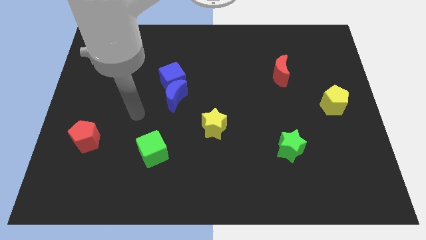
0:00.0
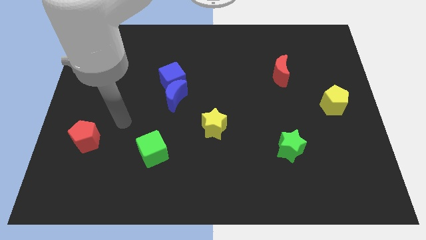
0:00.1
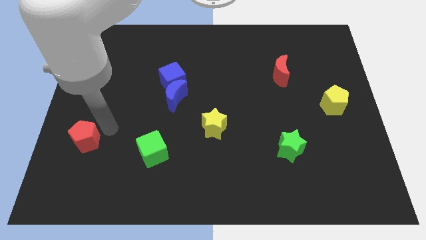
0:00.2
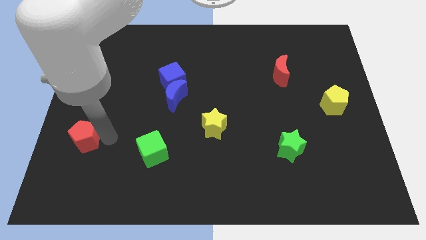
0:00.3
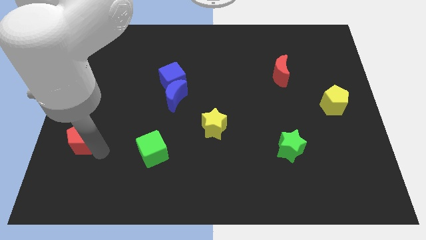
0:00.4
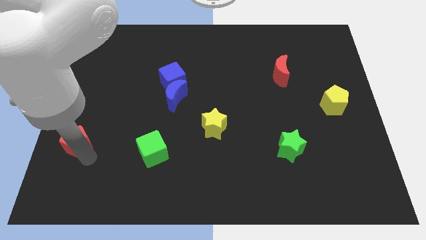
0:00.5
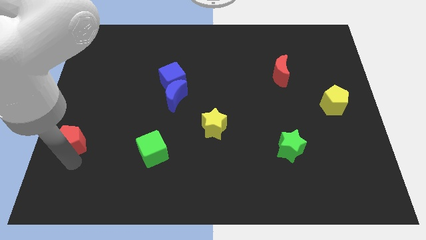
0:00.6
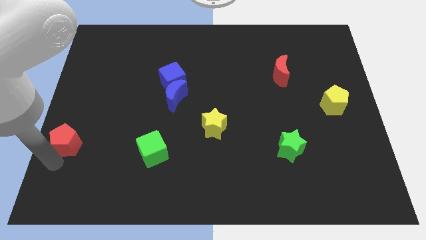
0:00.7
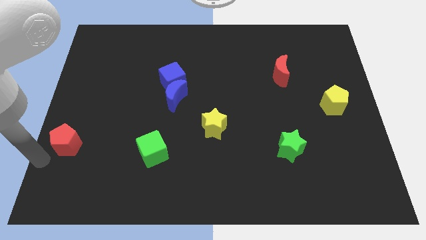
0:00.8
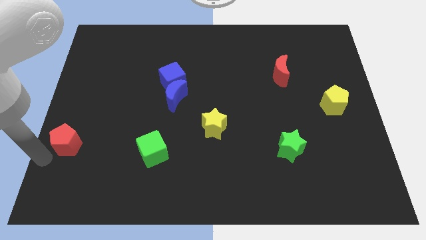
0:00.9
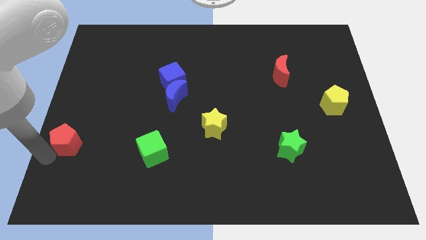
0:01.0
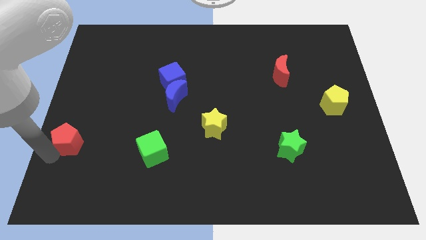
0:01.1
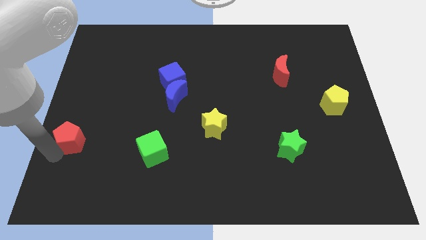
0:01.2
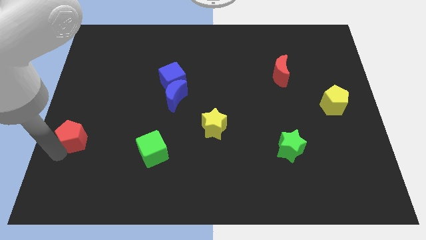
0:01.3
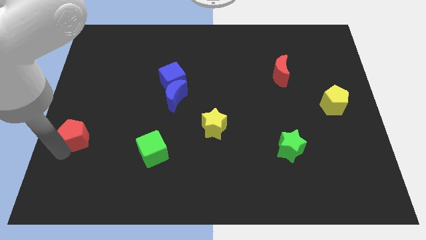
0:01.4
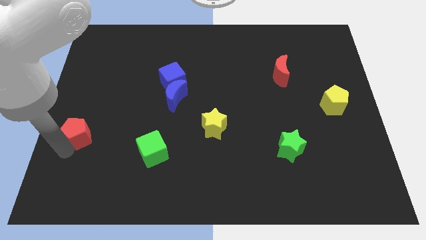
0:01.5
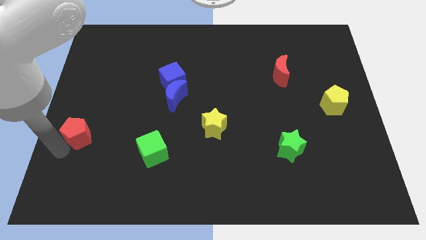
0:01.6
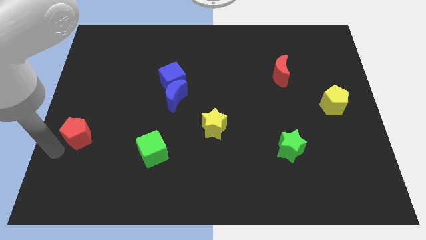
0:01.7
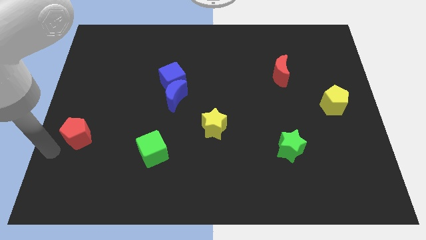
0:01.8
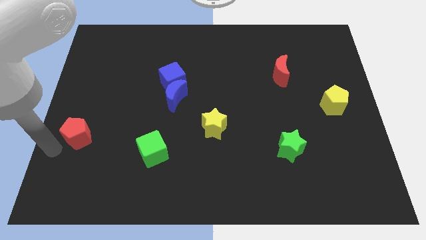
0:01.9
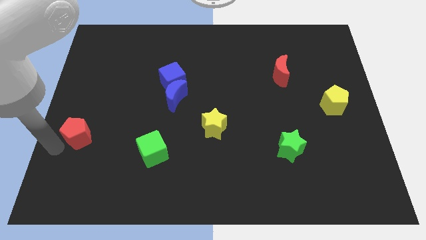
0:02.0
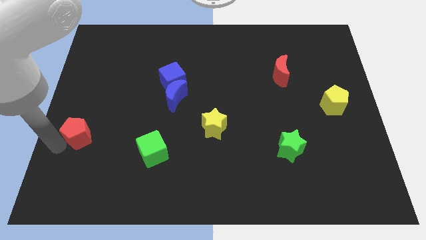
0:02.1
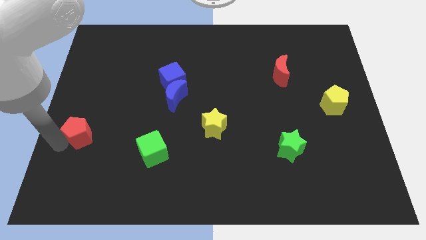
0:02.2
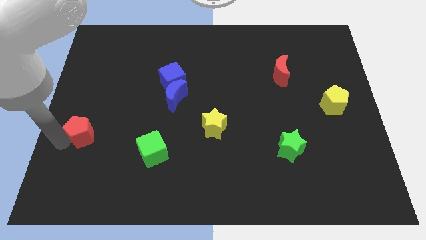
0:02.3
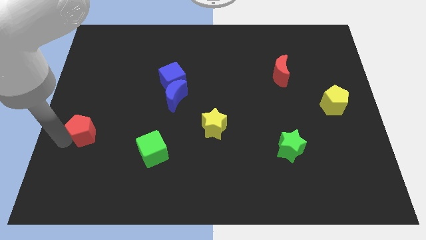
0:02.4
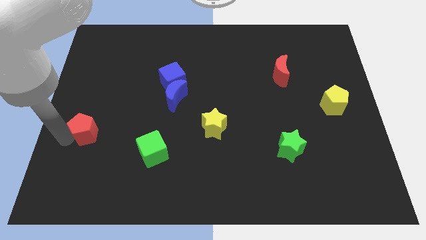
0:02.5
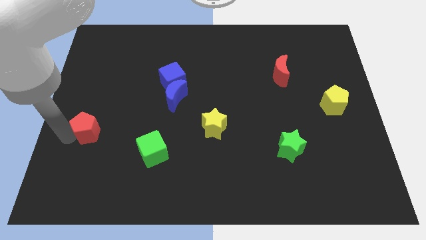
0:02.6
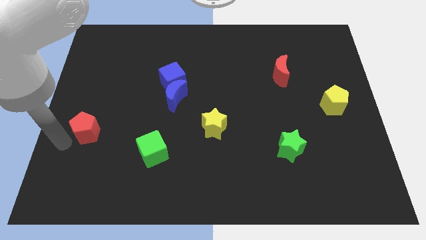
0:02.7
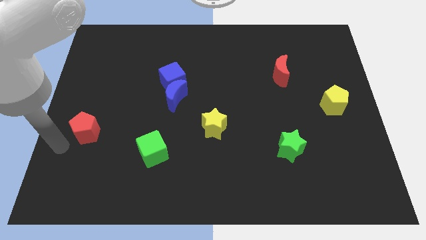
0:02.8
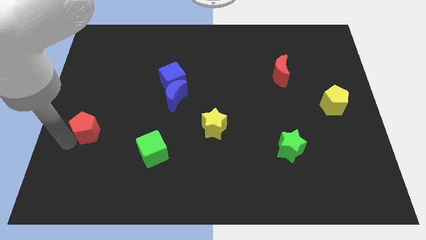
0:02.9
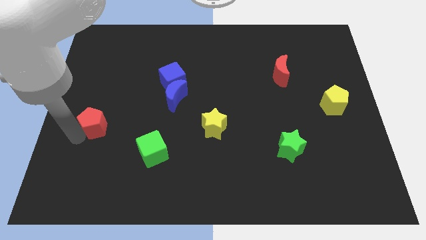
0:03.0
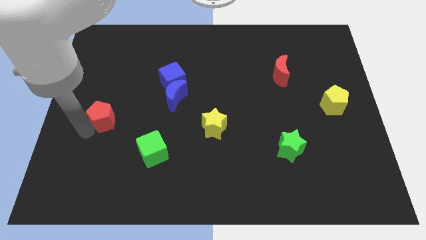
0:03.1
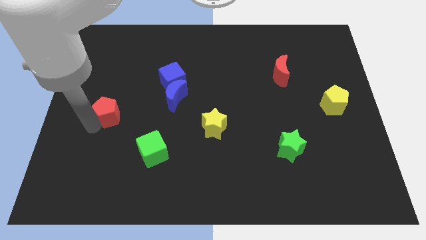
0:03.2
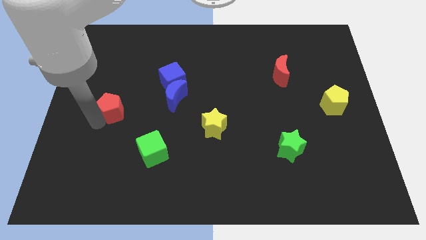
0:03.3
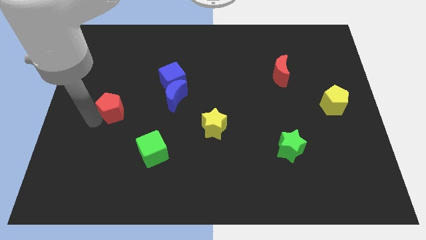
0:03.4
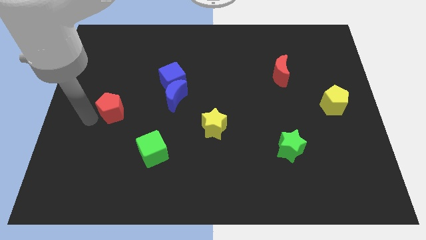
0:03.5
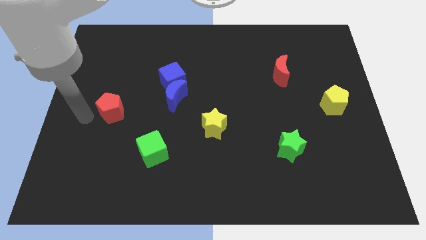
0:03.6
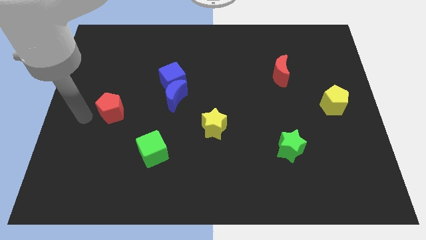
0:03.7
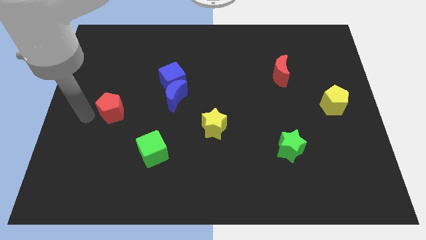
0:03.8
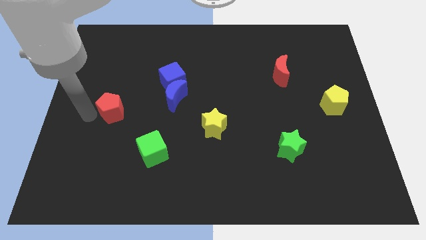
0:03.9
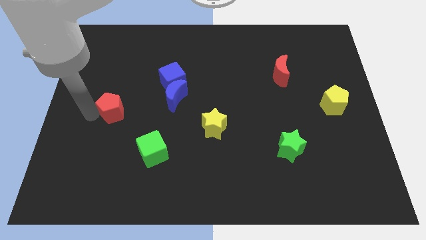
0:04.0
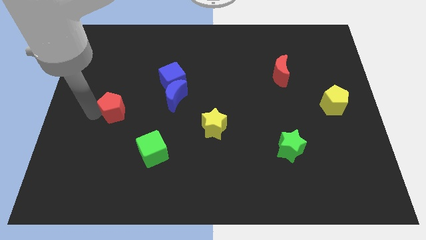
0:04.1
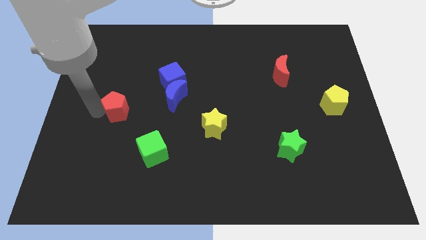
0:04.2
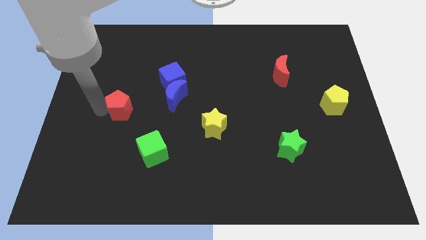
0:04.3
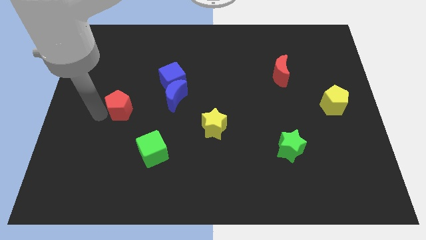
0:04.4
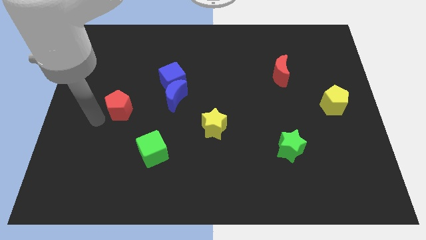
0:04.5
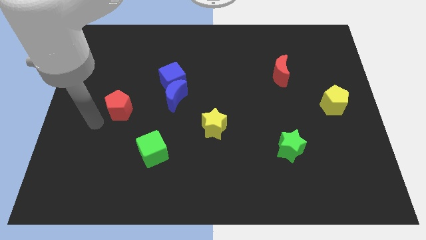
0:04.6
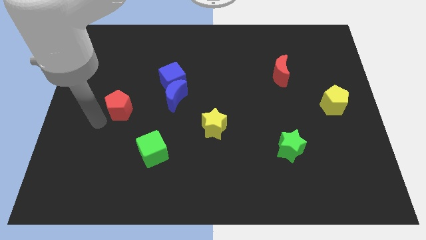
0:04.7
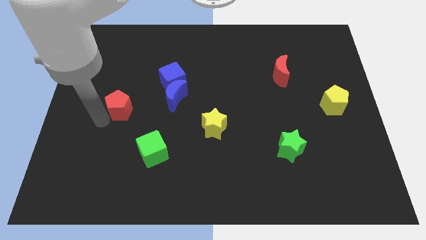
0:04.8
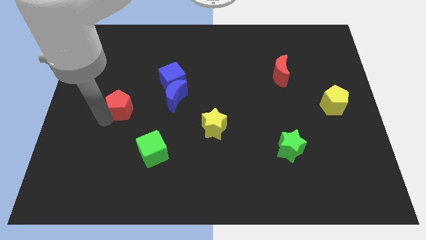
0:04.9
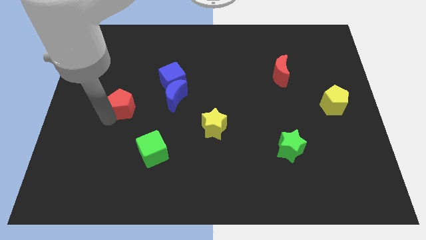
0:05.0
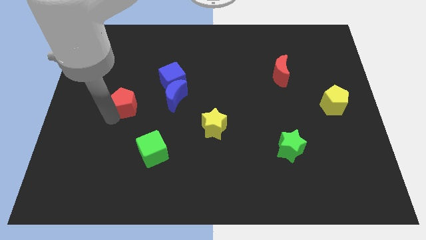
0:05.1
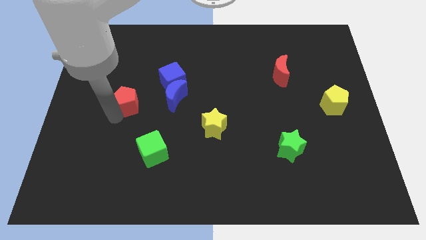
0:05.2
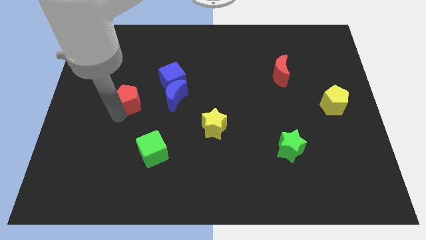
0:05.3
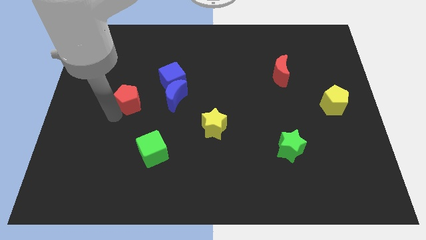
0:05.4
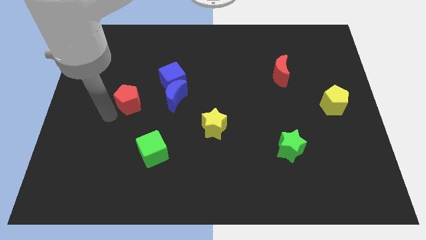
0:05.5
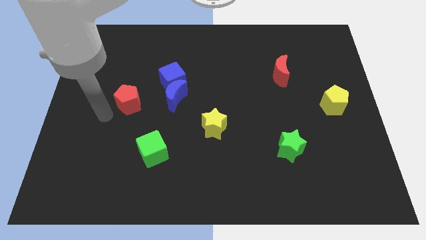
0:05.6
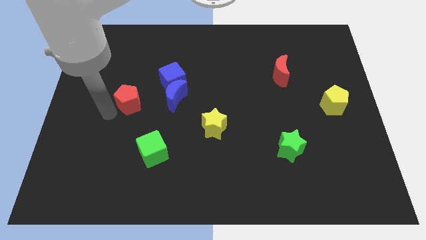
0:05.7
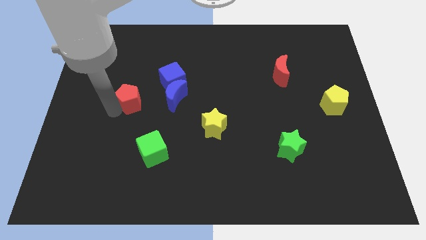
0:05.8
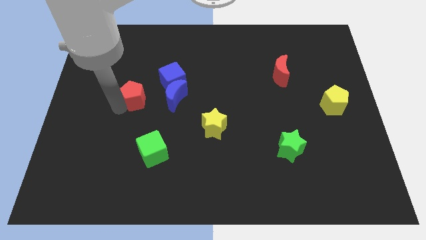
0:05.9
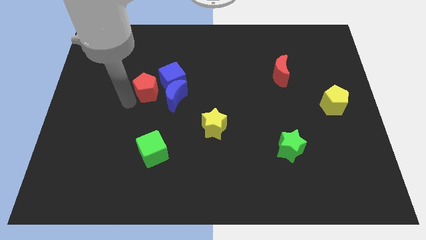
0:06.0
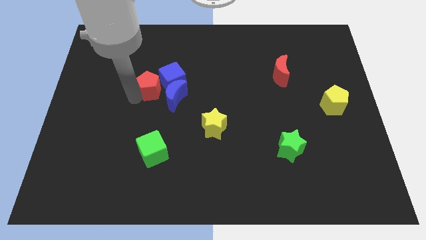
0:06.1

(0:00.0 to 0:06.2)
move the red pentagon close to the blue cube

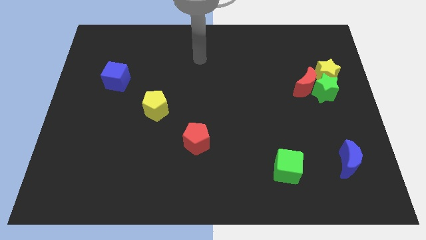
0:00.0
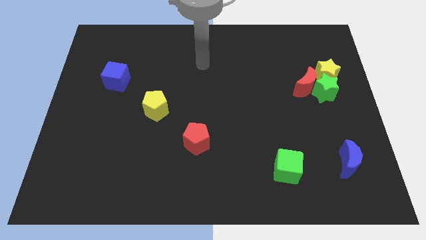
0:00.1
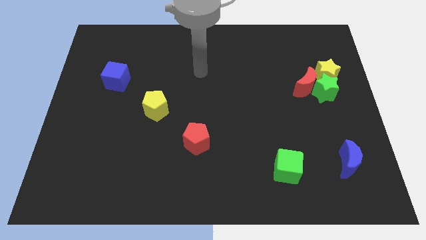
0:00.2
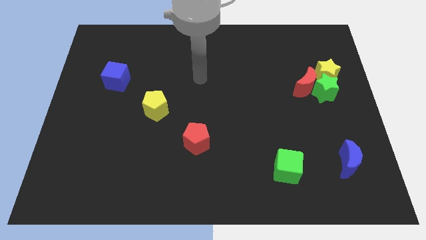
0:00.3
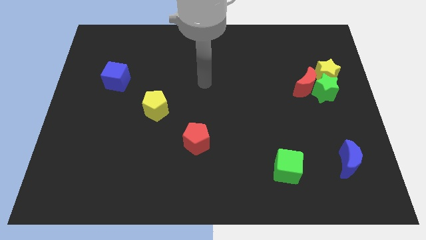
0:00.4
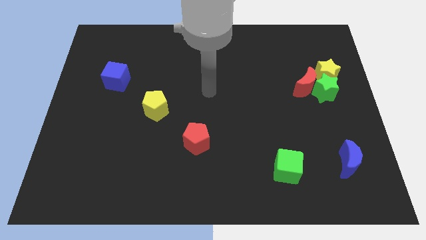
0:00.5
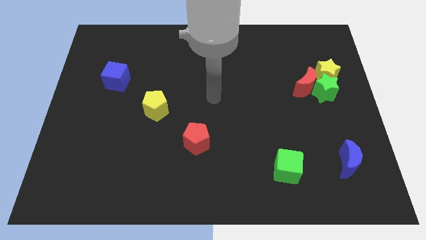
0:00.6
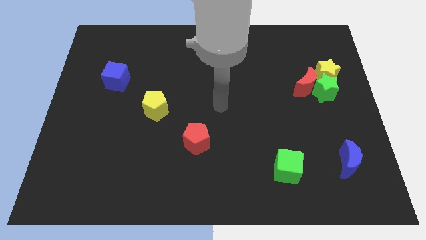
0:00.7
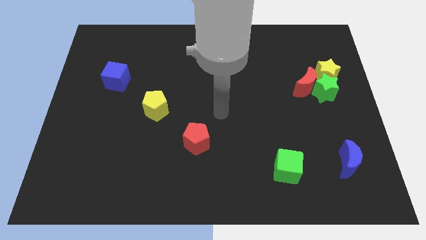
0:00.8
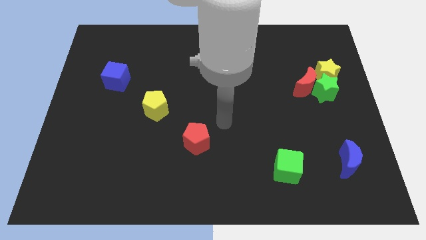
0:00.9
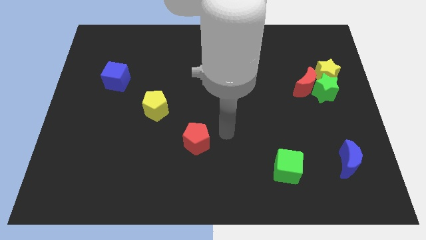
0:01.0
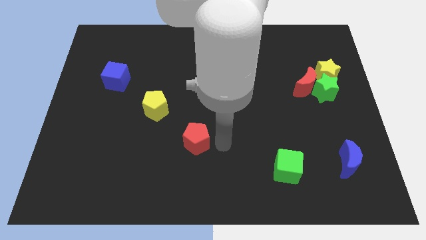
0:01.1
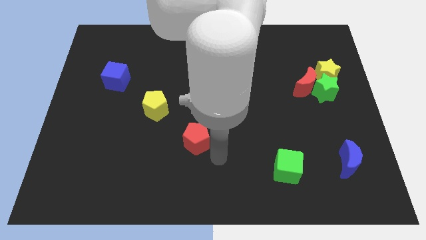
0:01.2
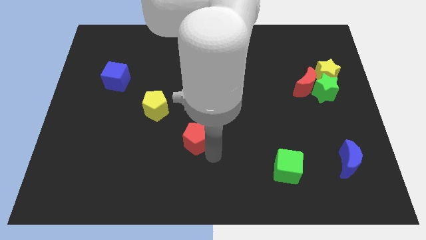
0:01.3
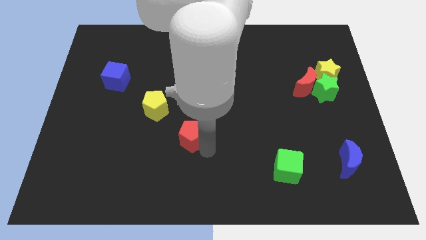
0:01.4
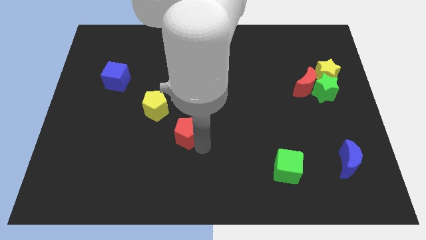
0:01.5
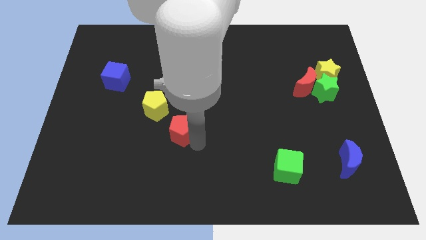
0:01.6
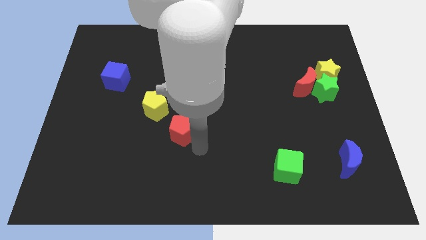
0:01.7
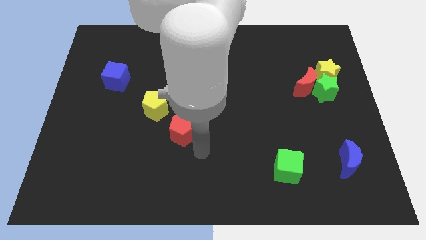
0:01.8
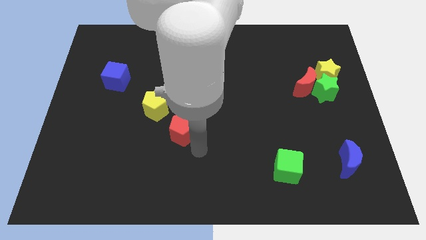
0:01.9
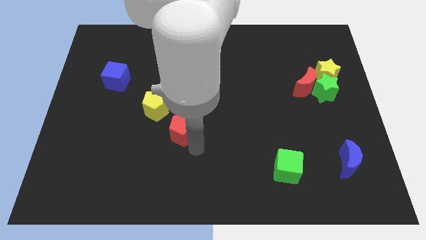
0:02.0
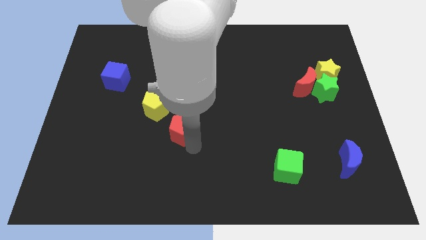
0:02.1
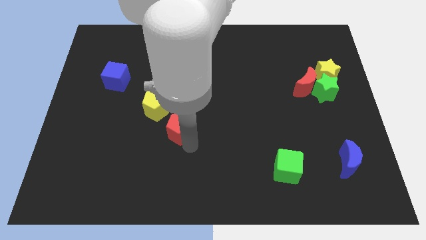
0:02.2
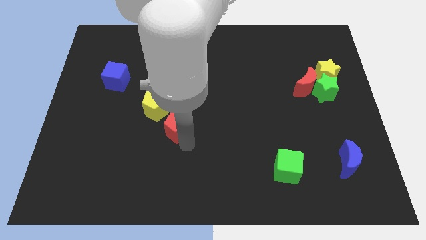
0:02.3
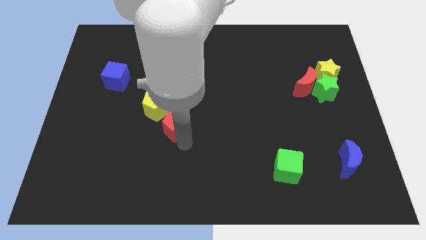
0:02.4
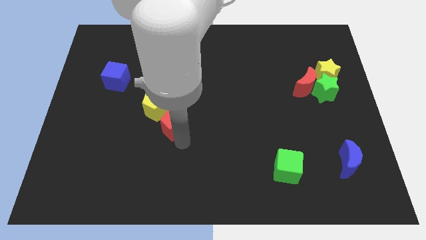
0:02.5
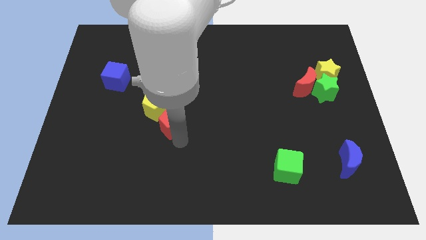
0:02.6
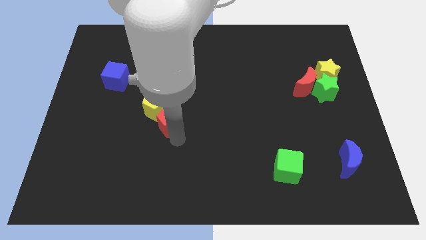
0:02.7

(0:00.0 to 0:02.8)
push the red pentagon towards the yellow pentagon
